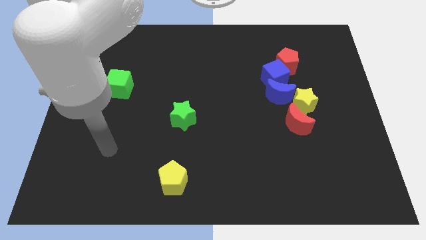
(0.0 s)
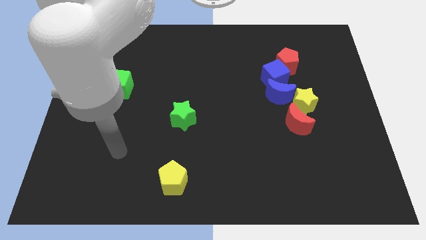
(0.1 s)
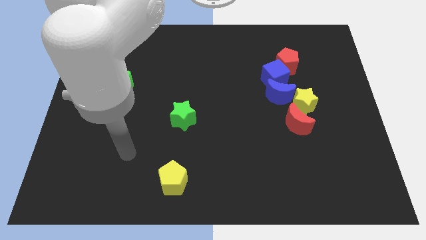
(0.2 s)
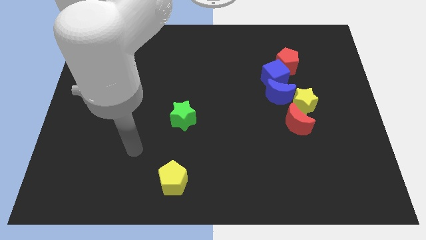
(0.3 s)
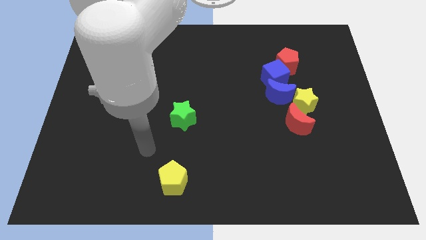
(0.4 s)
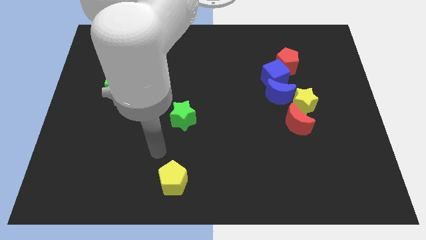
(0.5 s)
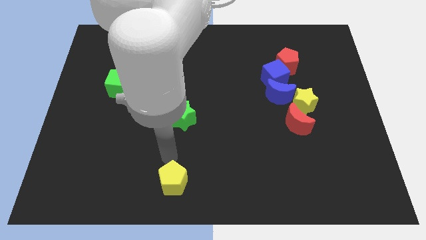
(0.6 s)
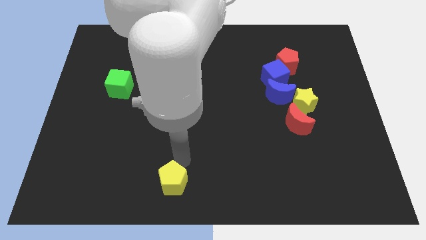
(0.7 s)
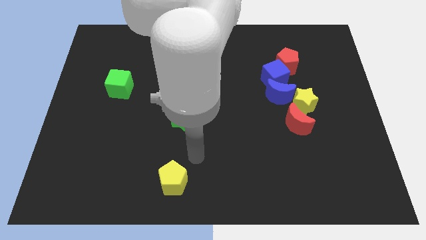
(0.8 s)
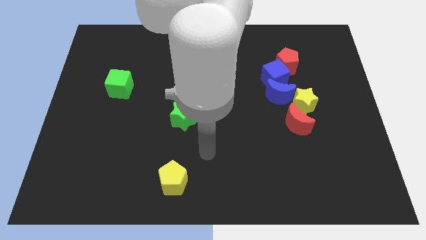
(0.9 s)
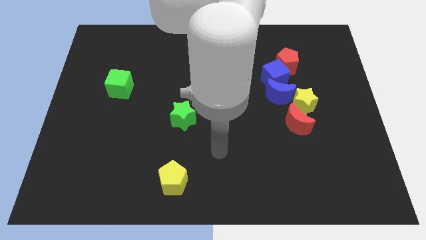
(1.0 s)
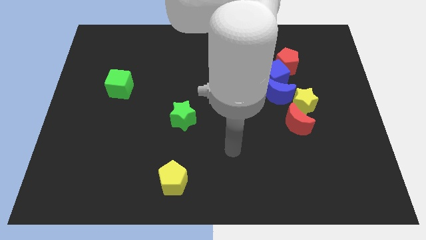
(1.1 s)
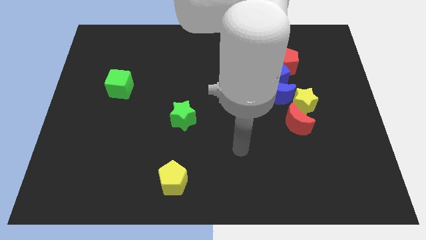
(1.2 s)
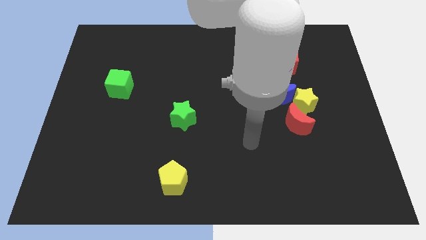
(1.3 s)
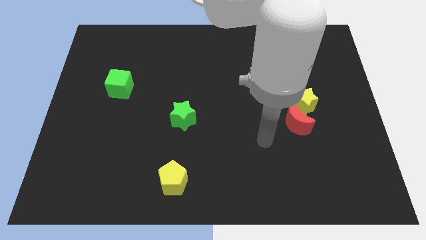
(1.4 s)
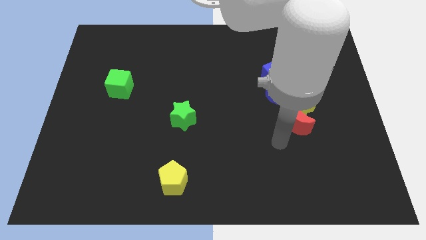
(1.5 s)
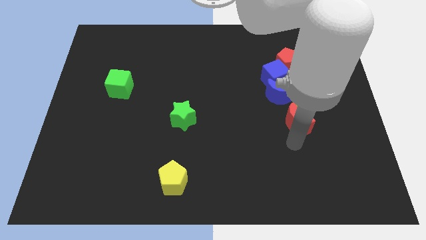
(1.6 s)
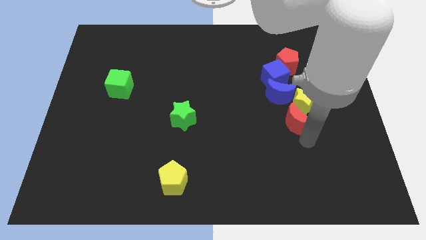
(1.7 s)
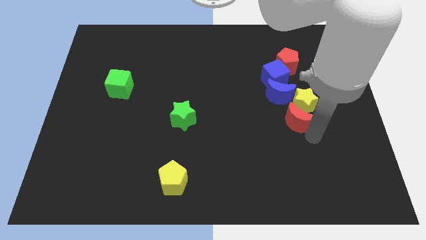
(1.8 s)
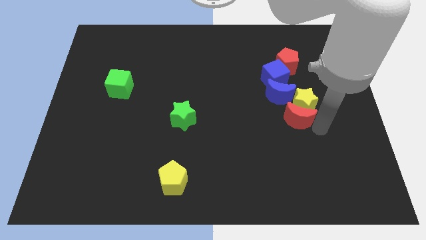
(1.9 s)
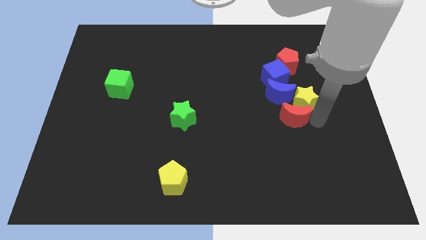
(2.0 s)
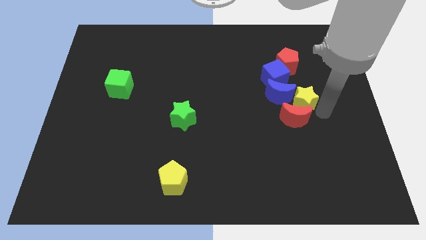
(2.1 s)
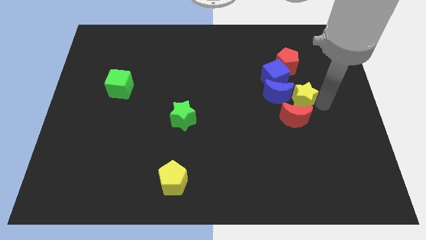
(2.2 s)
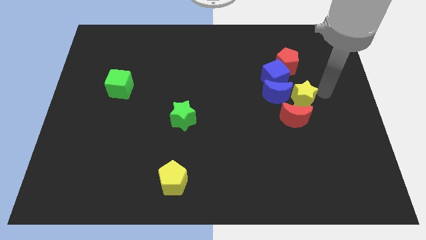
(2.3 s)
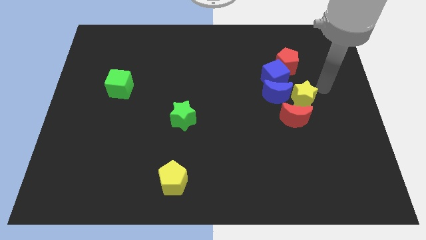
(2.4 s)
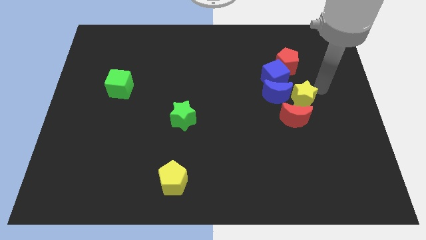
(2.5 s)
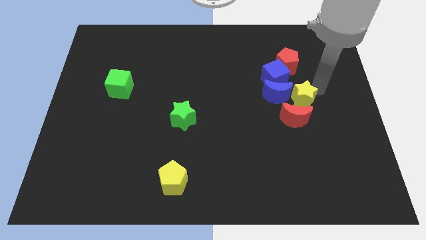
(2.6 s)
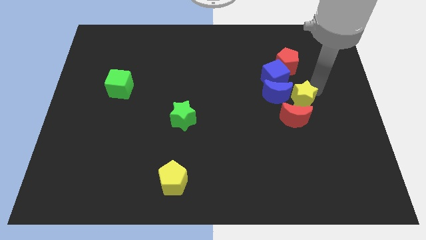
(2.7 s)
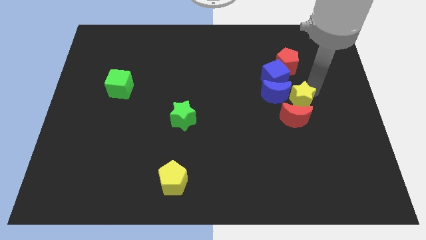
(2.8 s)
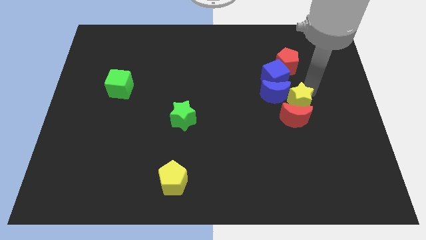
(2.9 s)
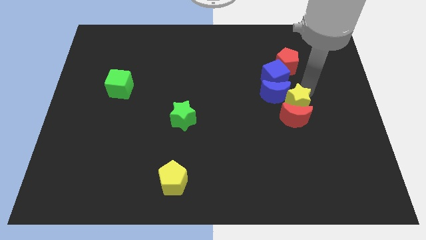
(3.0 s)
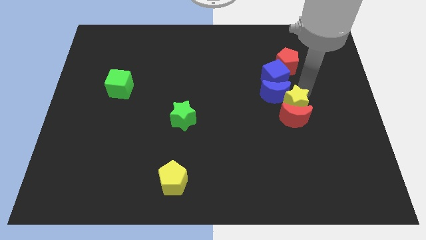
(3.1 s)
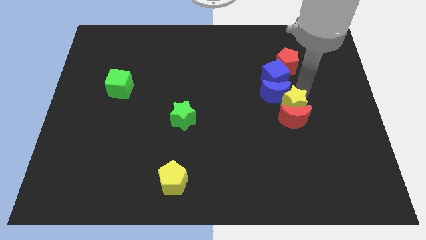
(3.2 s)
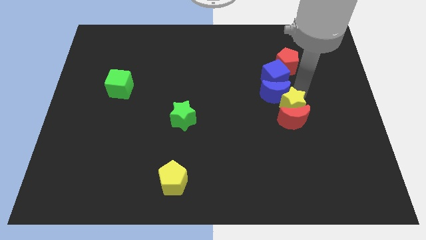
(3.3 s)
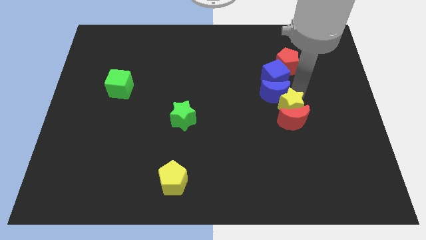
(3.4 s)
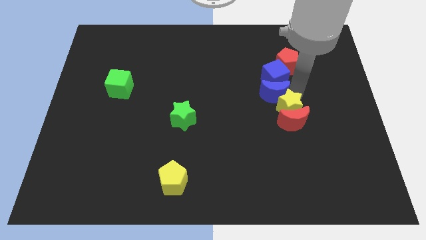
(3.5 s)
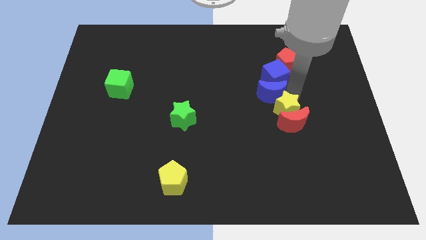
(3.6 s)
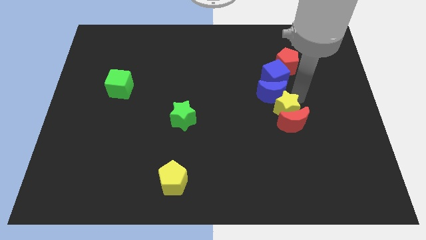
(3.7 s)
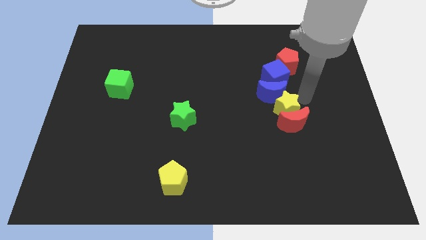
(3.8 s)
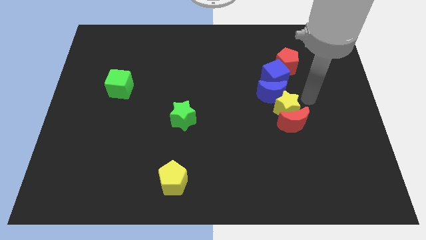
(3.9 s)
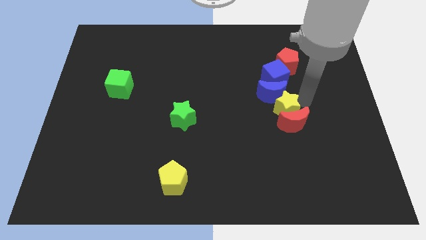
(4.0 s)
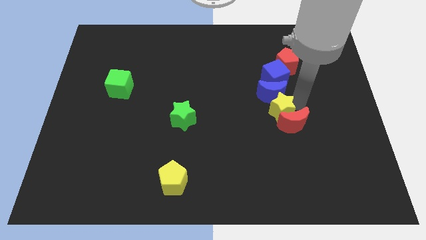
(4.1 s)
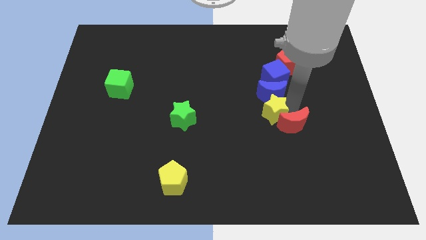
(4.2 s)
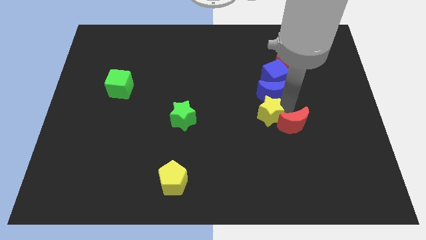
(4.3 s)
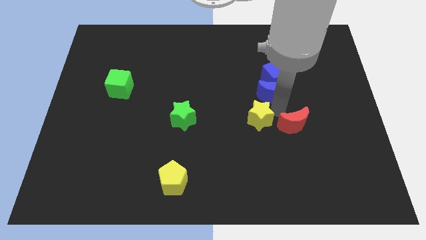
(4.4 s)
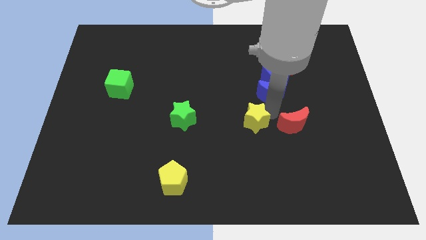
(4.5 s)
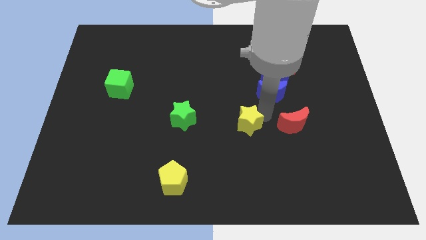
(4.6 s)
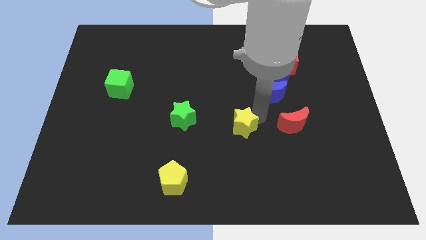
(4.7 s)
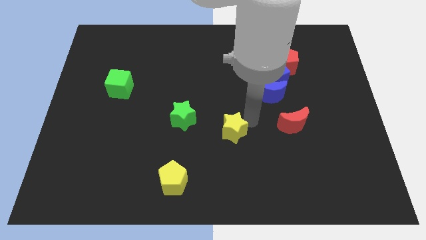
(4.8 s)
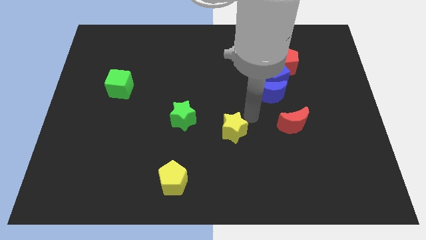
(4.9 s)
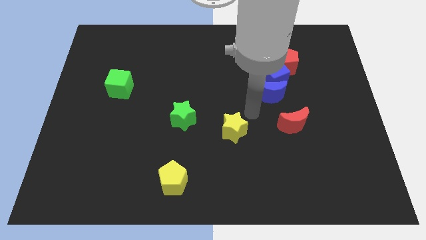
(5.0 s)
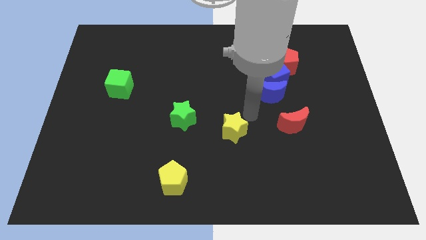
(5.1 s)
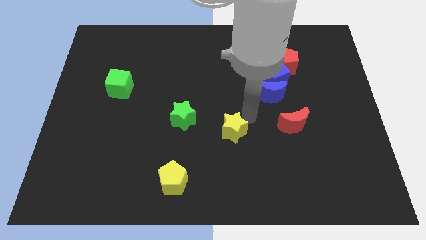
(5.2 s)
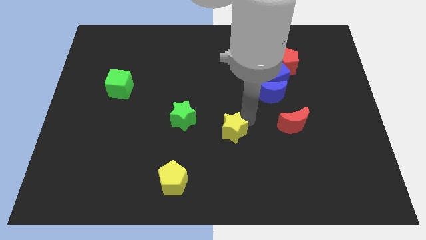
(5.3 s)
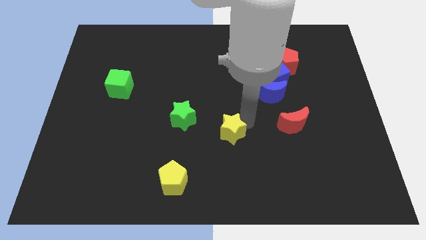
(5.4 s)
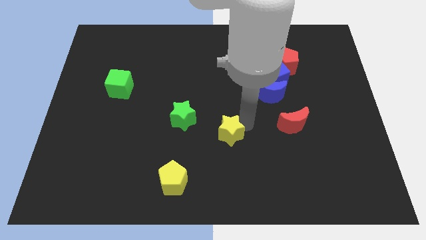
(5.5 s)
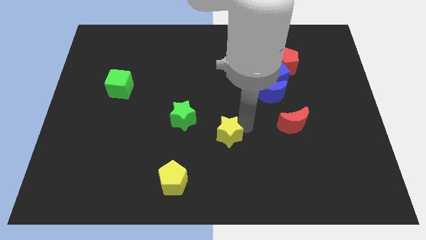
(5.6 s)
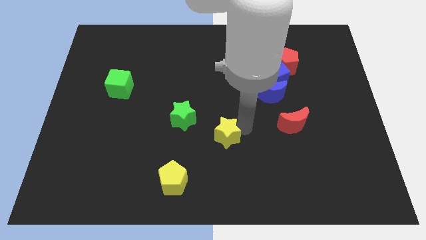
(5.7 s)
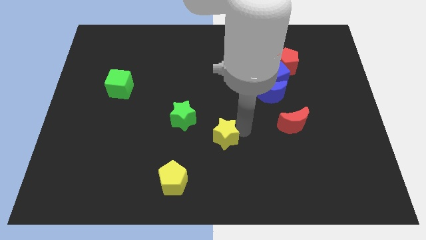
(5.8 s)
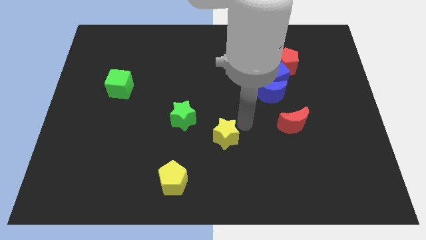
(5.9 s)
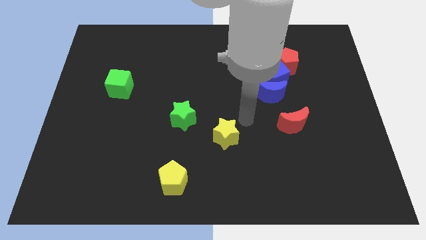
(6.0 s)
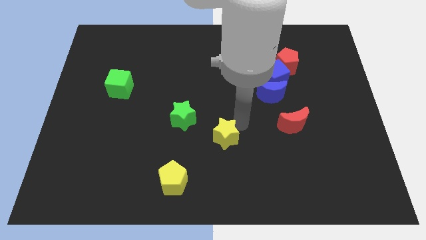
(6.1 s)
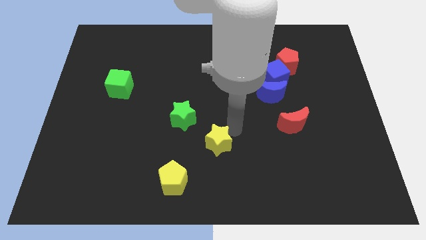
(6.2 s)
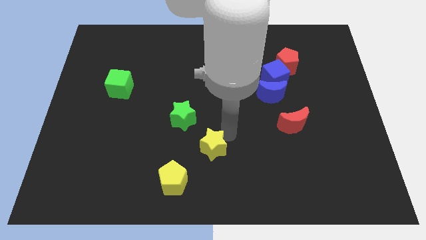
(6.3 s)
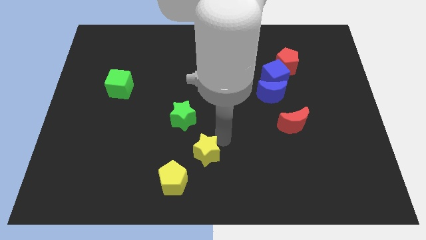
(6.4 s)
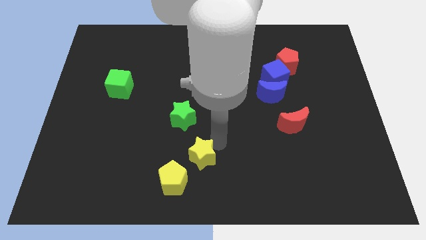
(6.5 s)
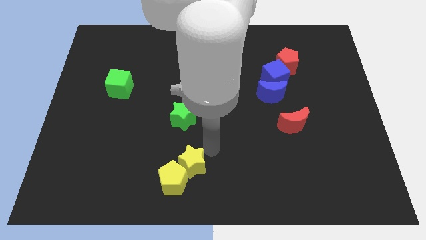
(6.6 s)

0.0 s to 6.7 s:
push the yellow star close to the yellow pentagon

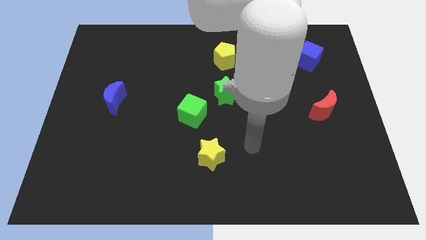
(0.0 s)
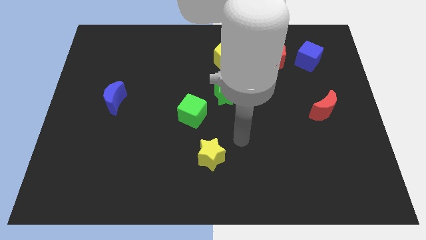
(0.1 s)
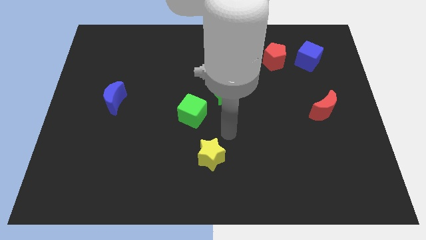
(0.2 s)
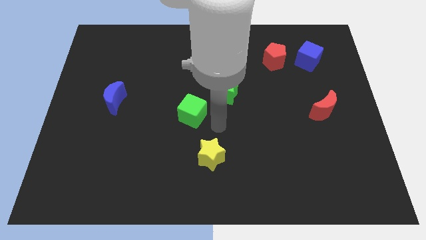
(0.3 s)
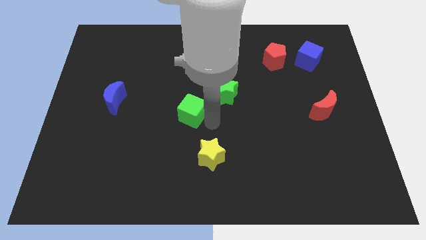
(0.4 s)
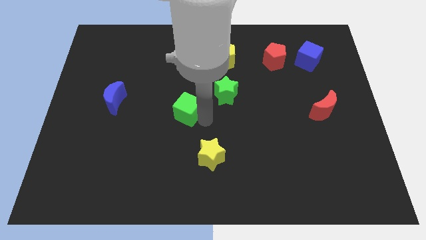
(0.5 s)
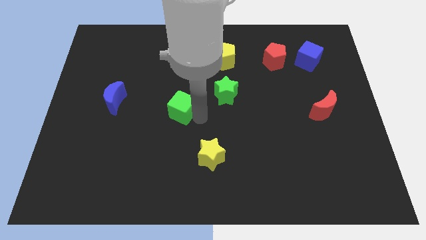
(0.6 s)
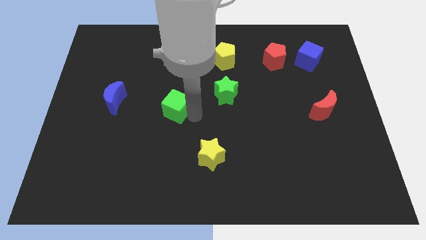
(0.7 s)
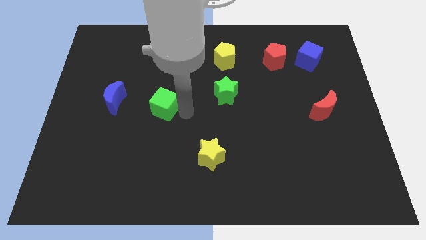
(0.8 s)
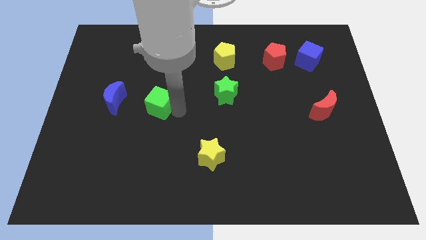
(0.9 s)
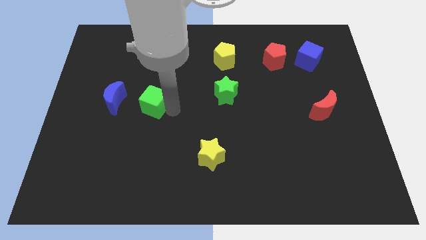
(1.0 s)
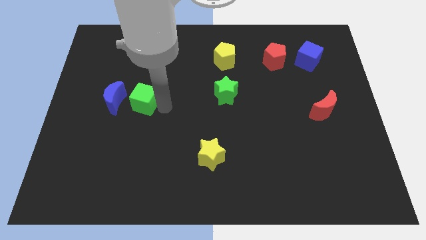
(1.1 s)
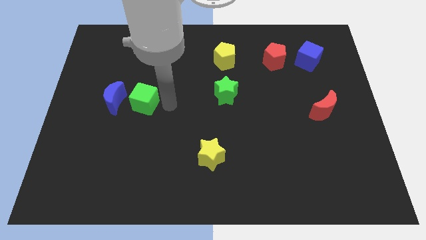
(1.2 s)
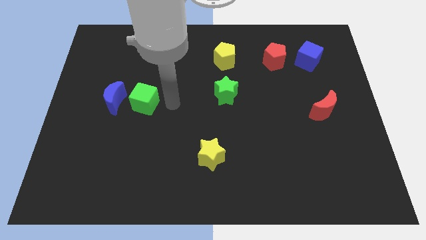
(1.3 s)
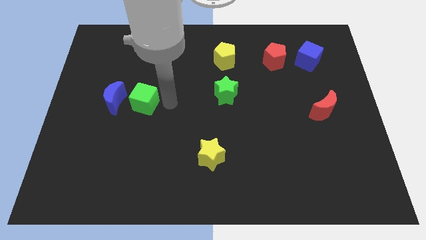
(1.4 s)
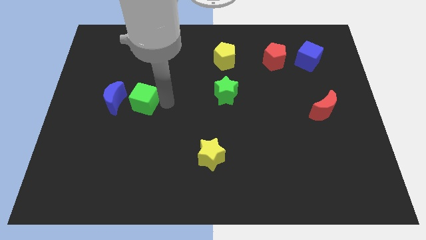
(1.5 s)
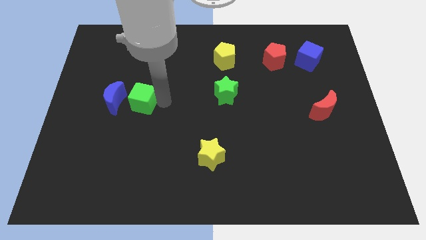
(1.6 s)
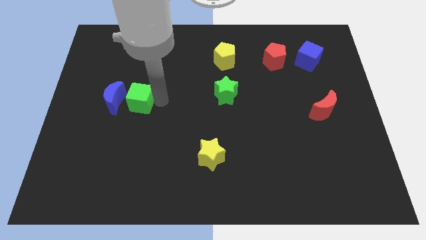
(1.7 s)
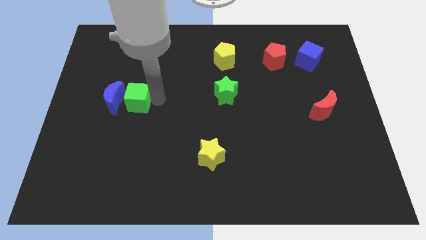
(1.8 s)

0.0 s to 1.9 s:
put the green cube close to the blue moon

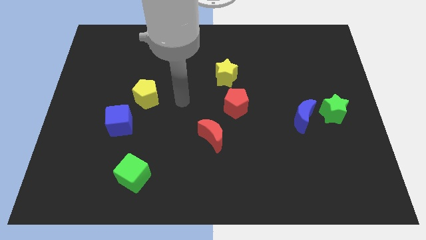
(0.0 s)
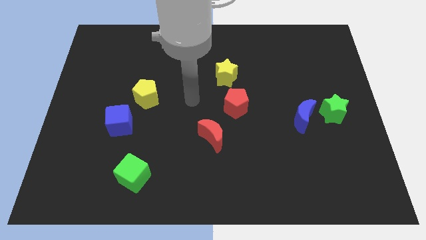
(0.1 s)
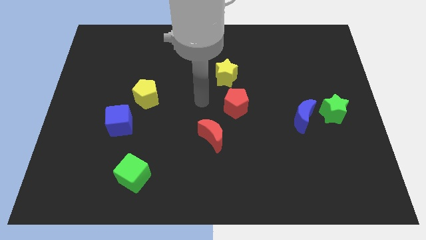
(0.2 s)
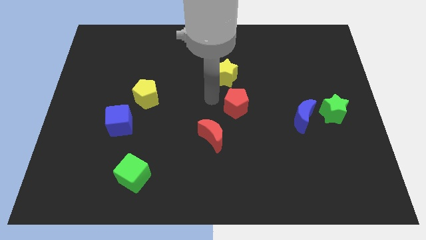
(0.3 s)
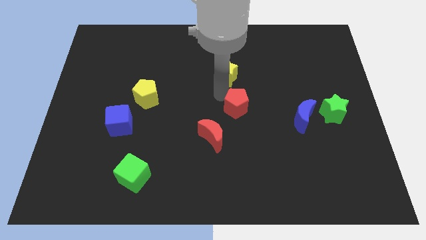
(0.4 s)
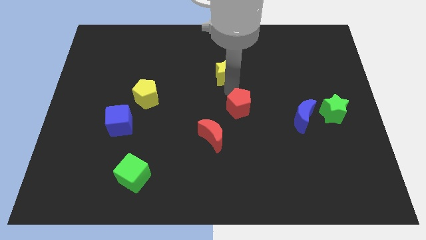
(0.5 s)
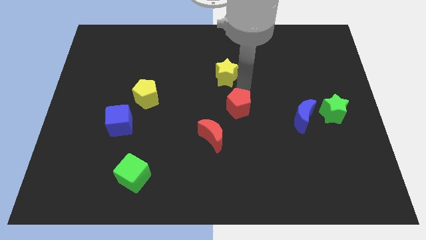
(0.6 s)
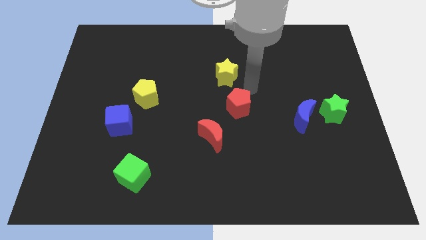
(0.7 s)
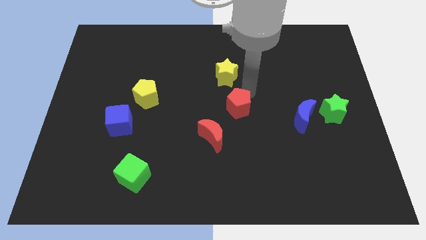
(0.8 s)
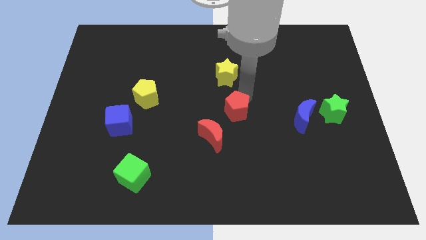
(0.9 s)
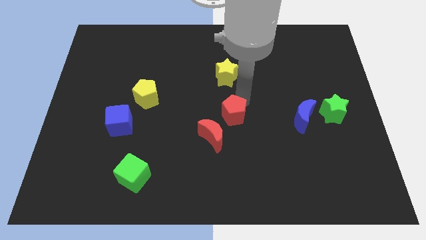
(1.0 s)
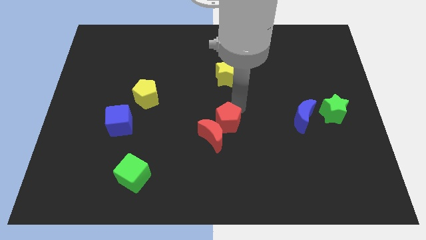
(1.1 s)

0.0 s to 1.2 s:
slide the red pentagon to the red moon
